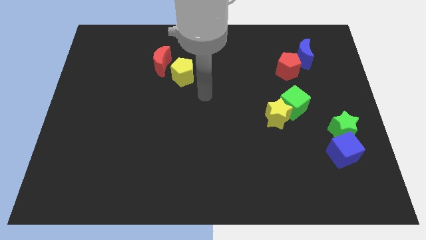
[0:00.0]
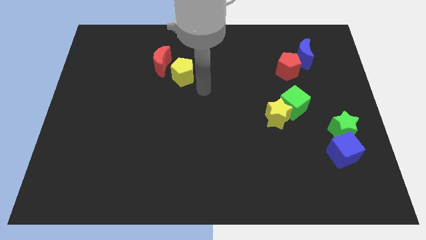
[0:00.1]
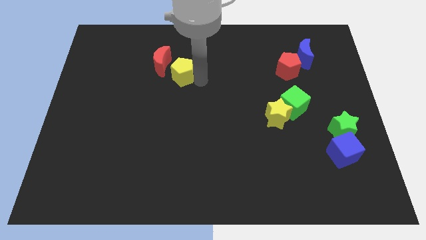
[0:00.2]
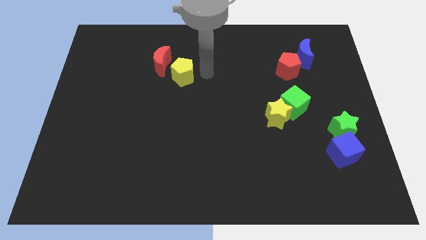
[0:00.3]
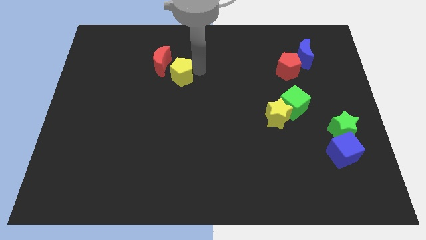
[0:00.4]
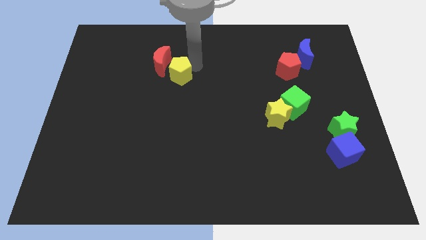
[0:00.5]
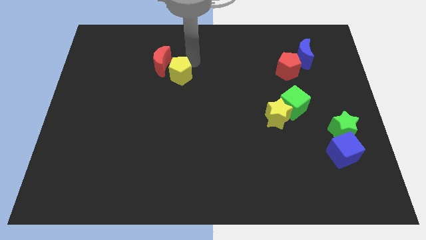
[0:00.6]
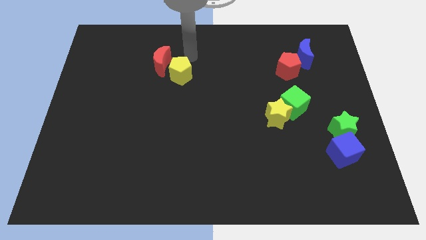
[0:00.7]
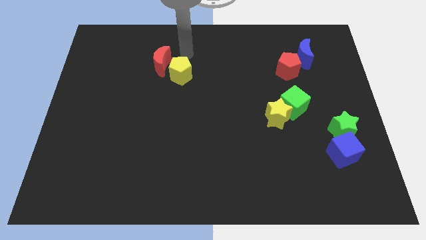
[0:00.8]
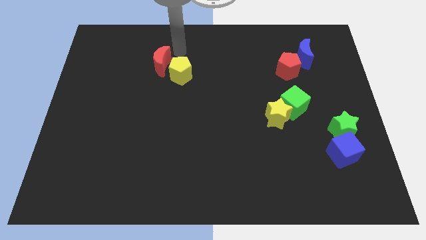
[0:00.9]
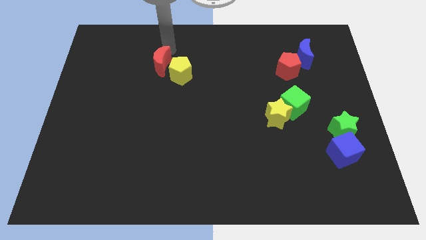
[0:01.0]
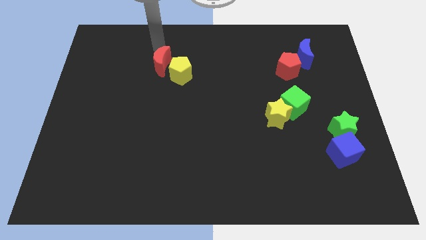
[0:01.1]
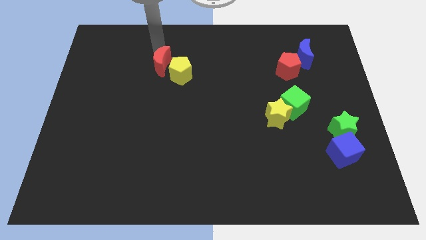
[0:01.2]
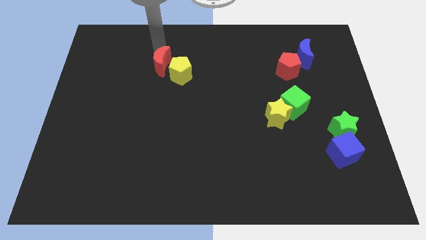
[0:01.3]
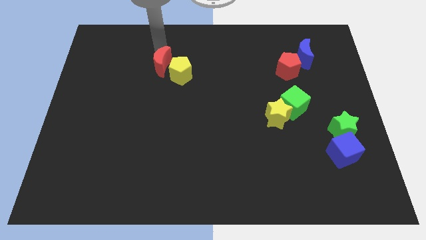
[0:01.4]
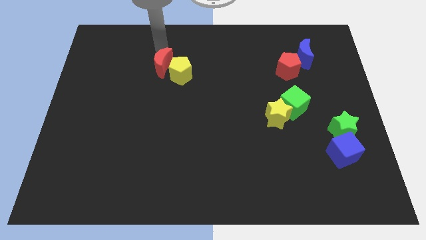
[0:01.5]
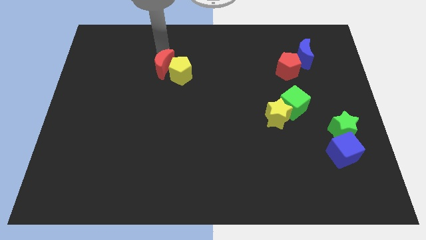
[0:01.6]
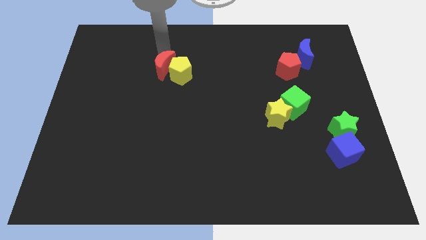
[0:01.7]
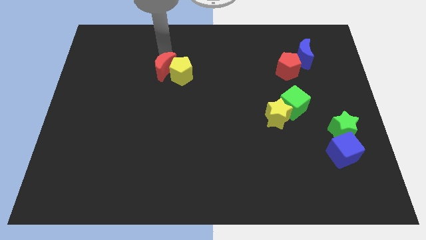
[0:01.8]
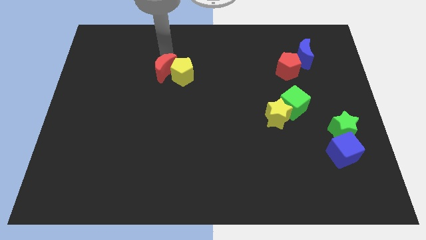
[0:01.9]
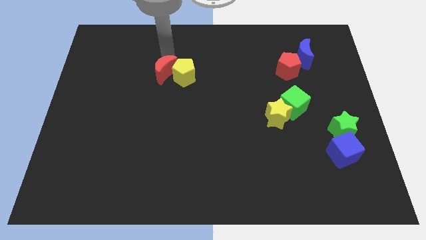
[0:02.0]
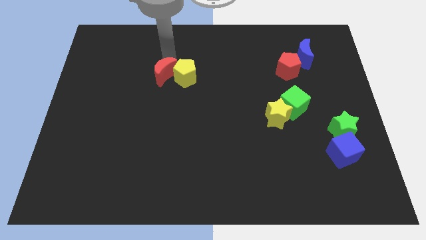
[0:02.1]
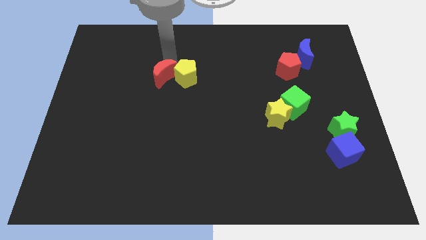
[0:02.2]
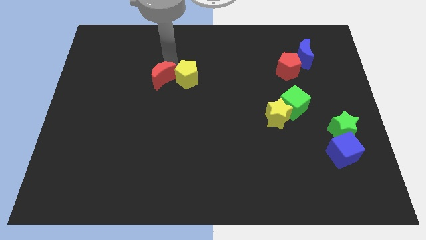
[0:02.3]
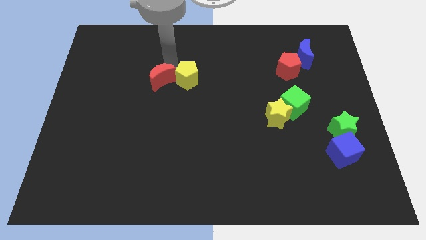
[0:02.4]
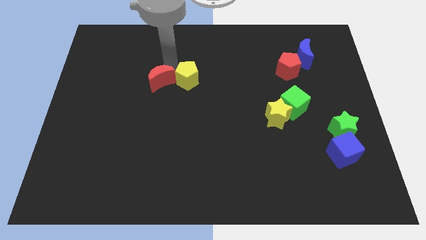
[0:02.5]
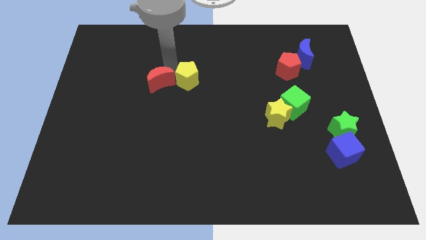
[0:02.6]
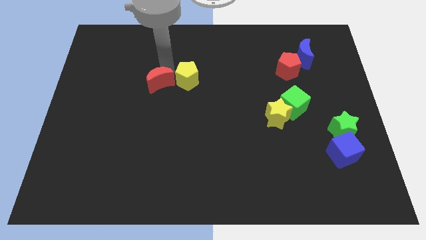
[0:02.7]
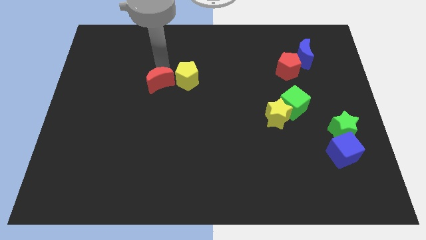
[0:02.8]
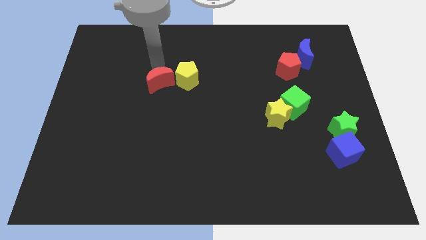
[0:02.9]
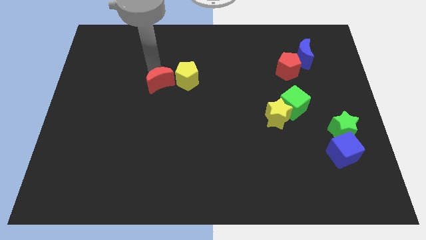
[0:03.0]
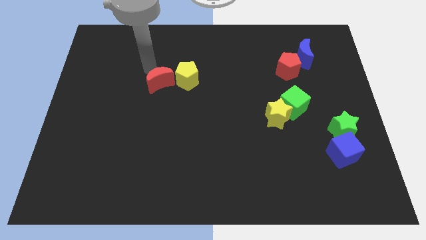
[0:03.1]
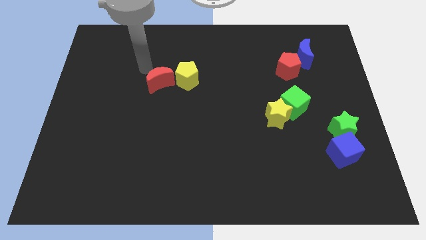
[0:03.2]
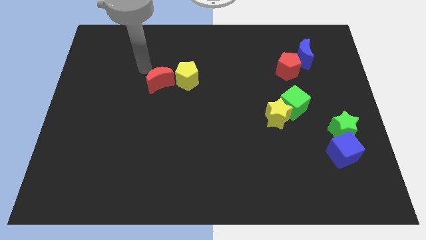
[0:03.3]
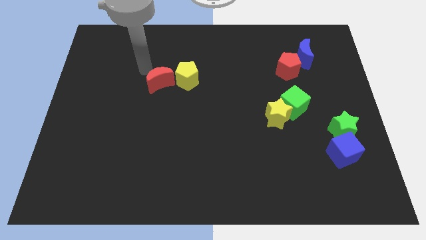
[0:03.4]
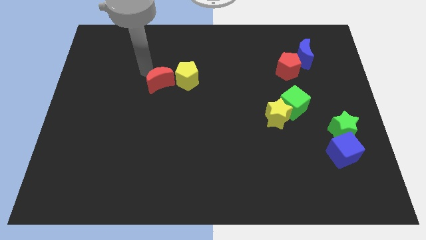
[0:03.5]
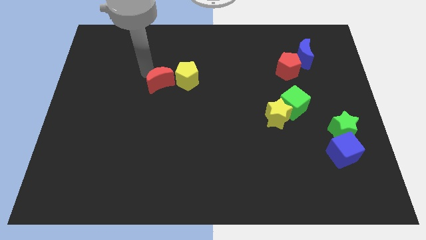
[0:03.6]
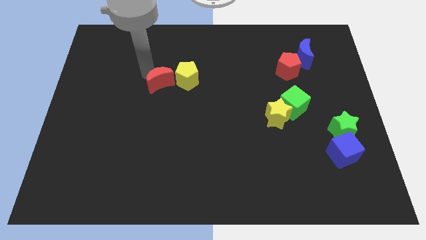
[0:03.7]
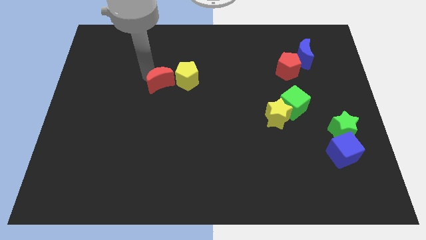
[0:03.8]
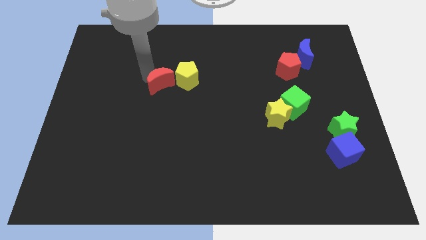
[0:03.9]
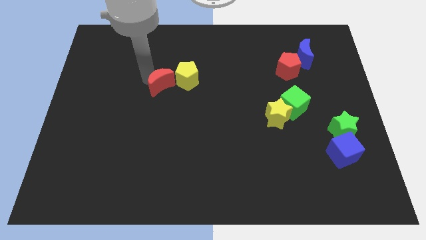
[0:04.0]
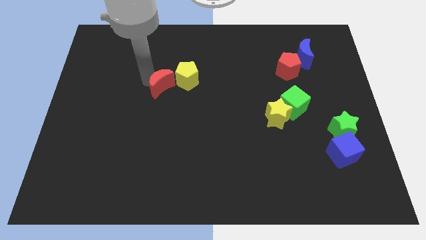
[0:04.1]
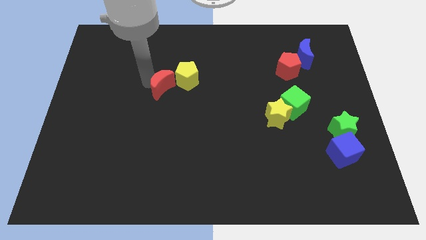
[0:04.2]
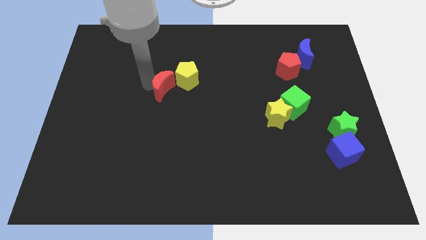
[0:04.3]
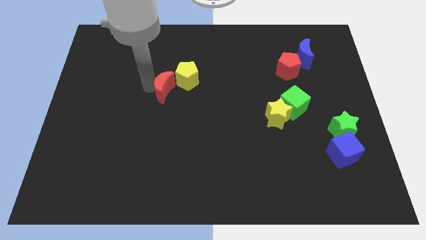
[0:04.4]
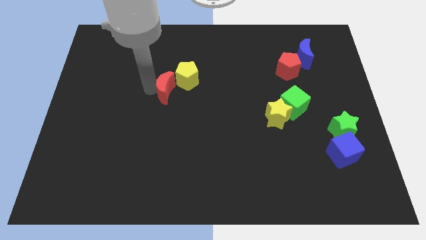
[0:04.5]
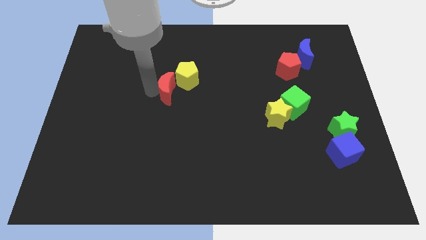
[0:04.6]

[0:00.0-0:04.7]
push the red moon down and to the right diagonally a little bit

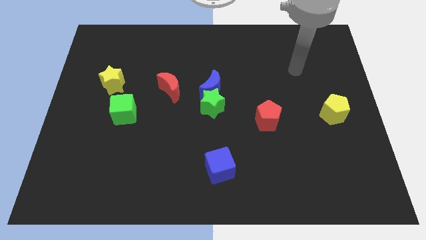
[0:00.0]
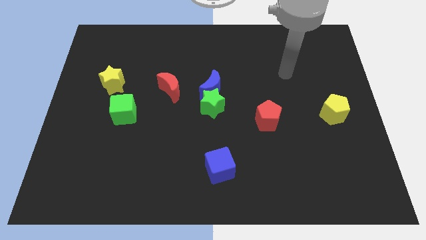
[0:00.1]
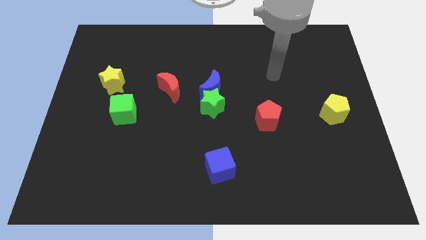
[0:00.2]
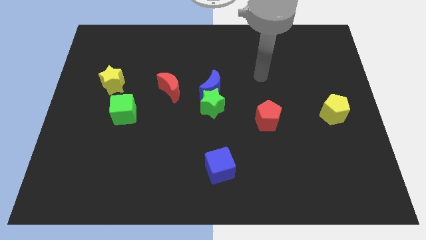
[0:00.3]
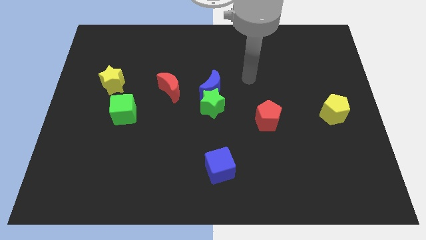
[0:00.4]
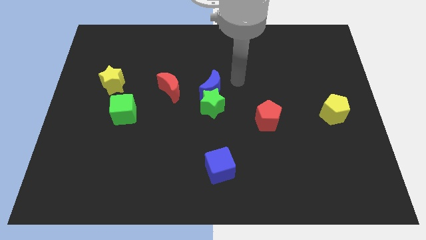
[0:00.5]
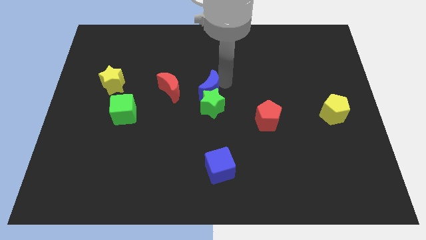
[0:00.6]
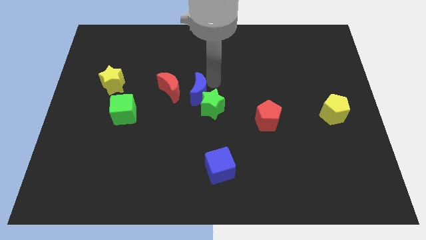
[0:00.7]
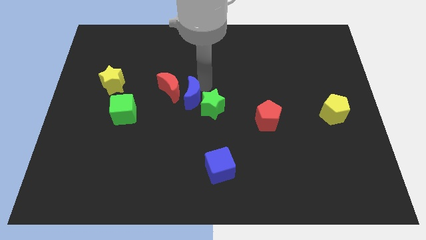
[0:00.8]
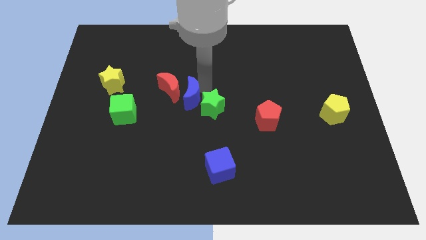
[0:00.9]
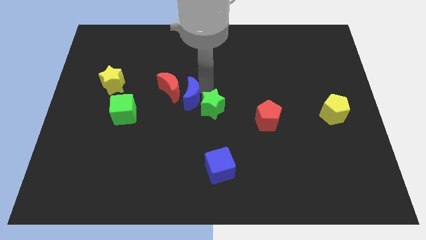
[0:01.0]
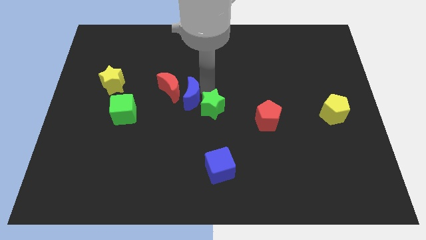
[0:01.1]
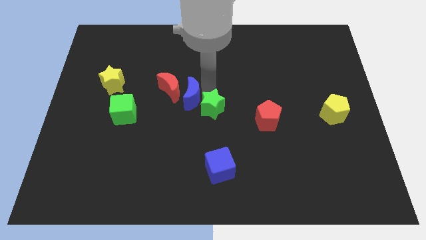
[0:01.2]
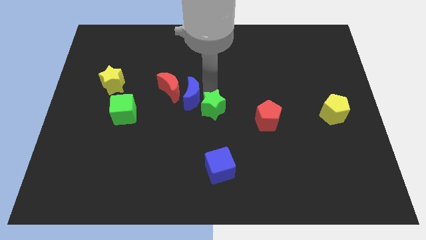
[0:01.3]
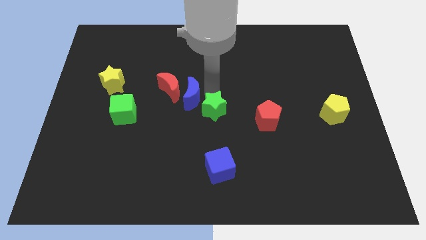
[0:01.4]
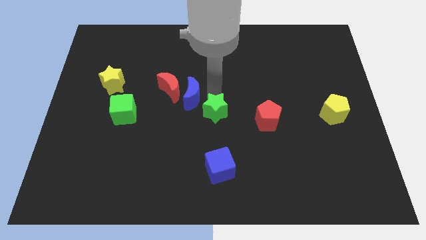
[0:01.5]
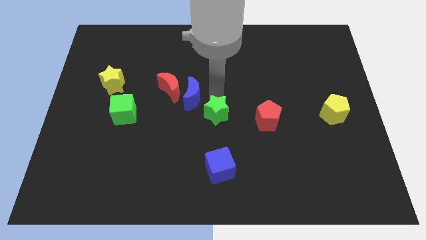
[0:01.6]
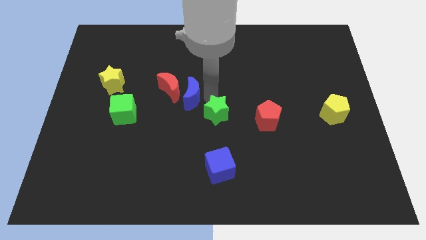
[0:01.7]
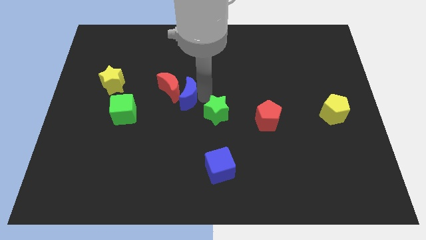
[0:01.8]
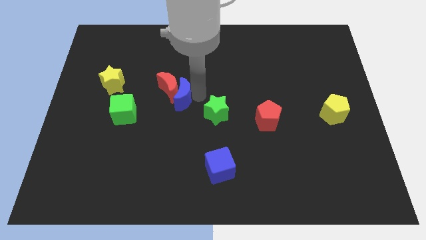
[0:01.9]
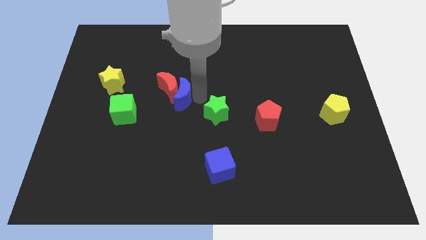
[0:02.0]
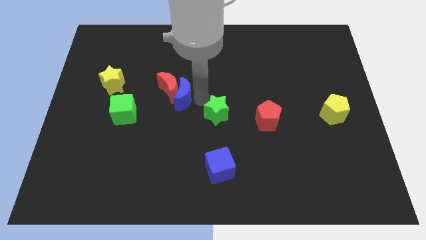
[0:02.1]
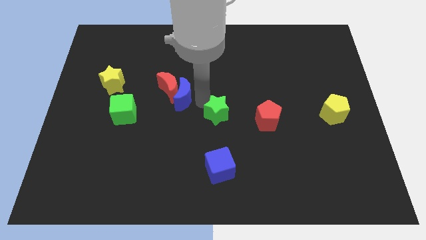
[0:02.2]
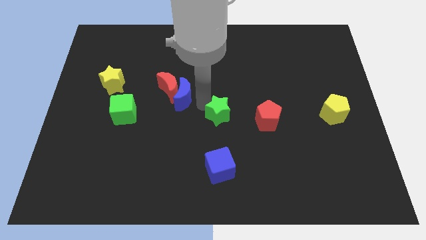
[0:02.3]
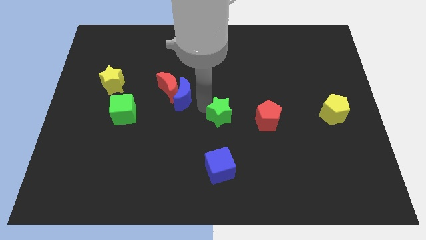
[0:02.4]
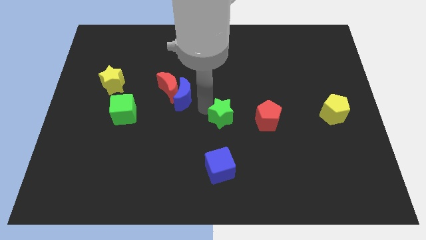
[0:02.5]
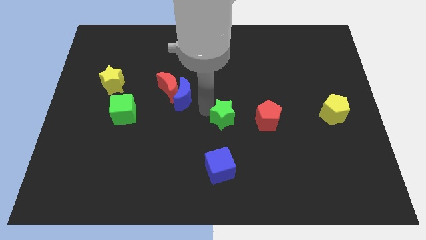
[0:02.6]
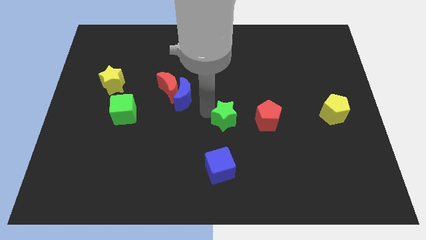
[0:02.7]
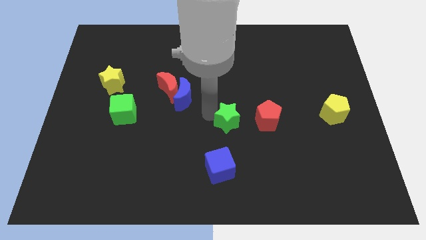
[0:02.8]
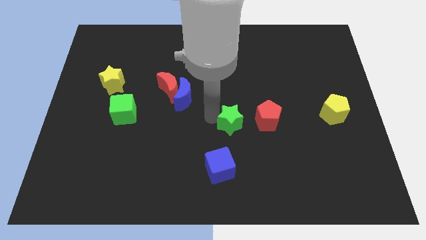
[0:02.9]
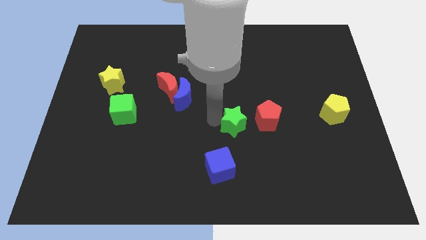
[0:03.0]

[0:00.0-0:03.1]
slightly slide the green star downwards and then right

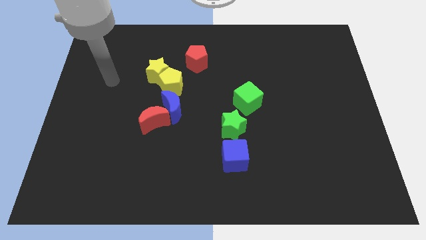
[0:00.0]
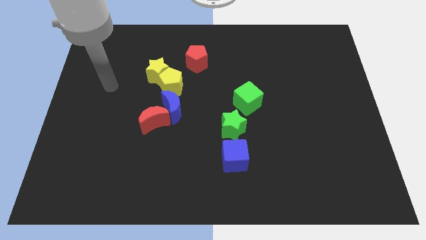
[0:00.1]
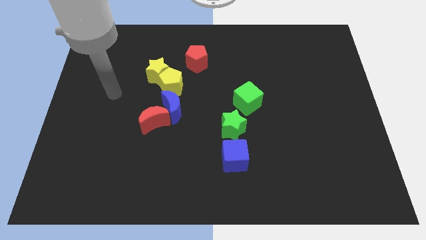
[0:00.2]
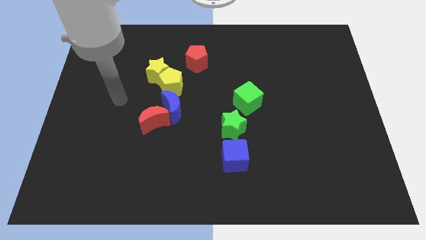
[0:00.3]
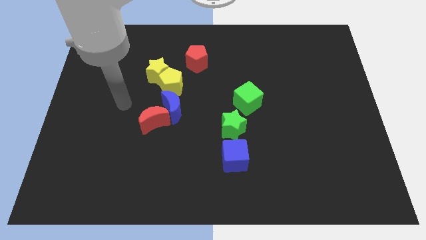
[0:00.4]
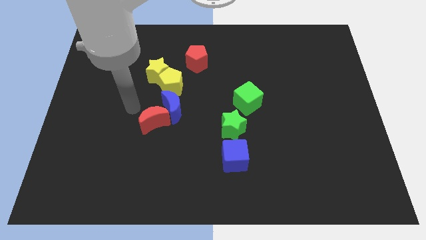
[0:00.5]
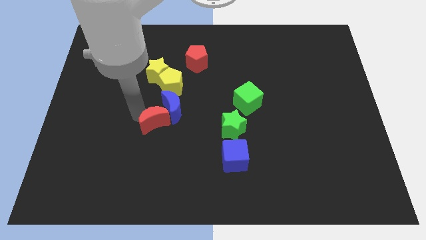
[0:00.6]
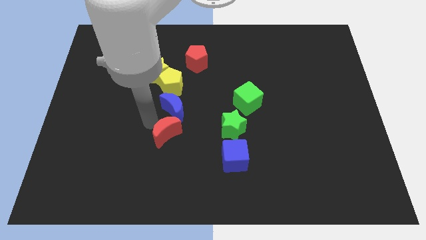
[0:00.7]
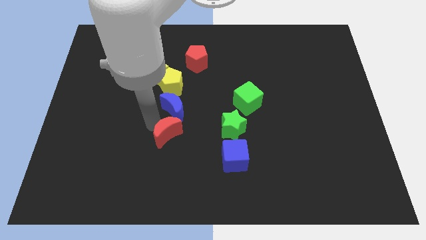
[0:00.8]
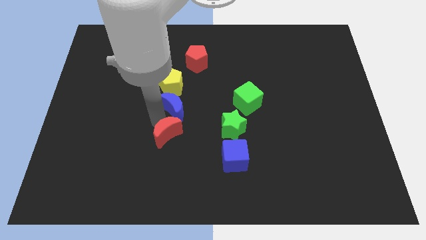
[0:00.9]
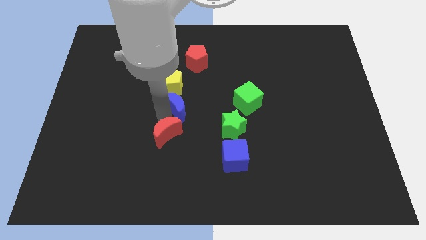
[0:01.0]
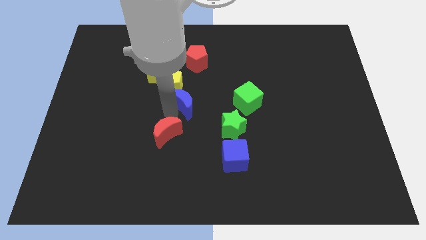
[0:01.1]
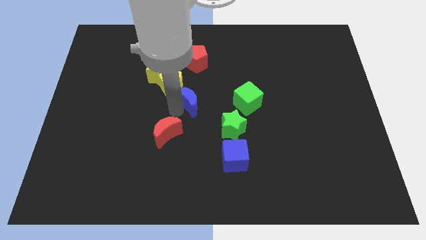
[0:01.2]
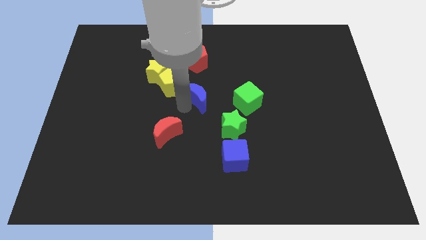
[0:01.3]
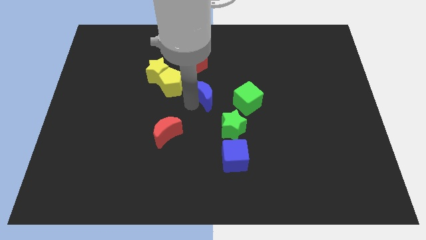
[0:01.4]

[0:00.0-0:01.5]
slide the blue moon diagonally up and right a little bit
